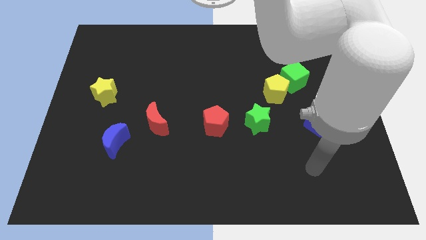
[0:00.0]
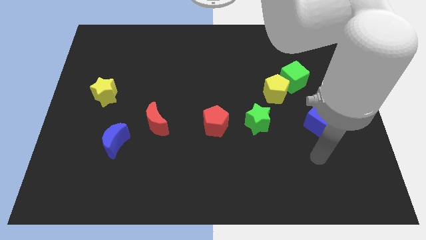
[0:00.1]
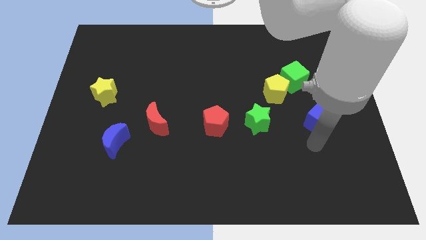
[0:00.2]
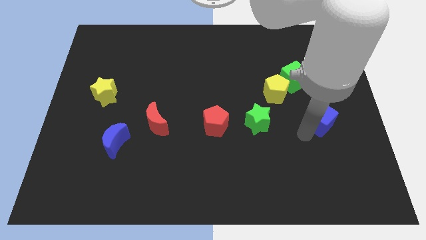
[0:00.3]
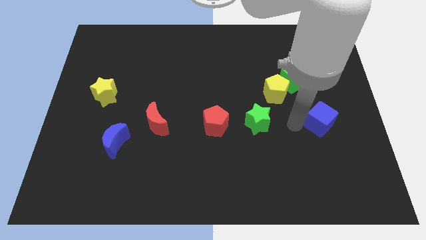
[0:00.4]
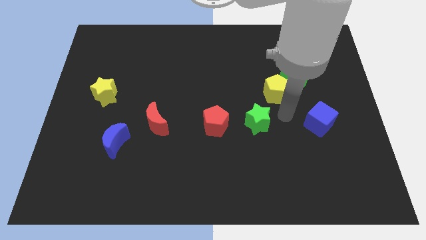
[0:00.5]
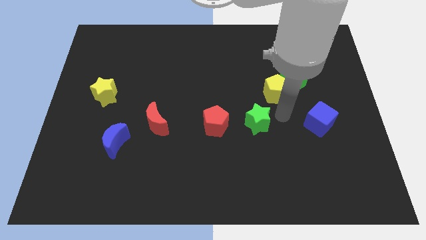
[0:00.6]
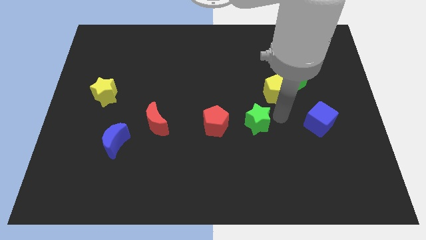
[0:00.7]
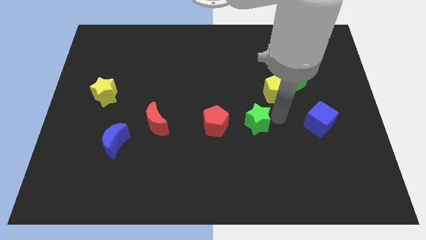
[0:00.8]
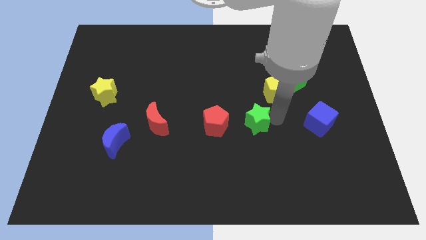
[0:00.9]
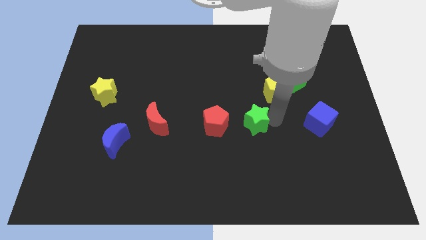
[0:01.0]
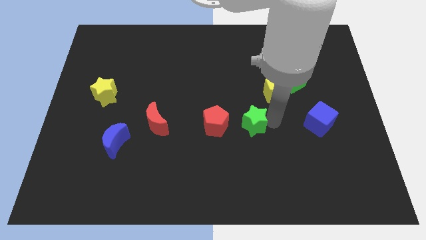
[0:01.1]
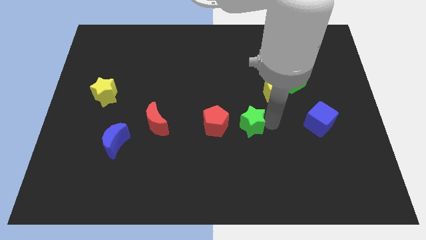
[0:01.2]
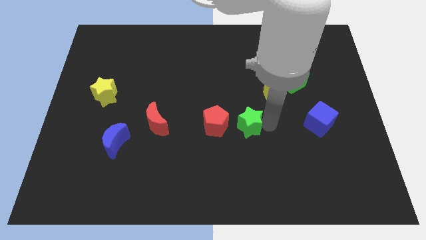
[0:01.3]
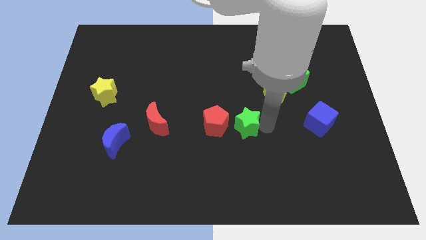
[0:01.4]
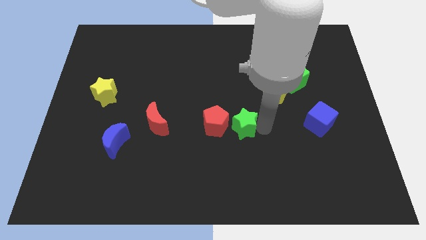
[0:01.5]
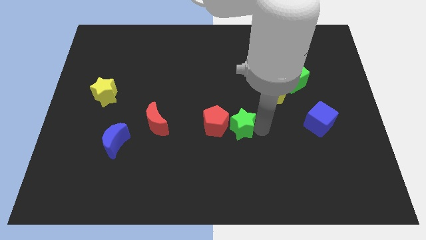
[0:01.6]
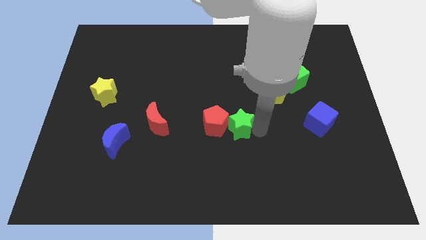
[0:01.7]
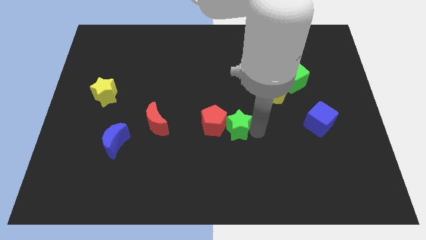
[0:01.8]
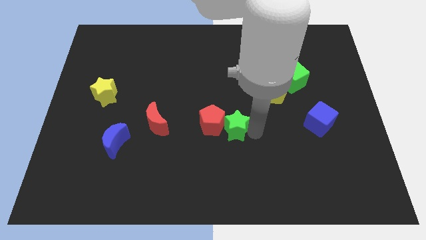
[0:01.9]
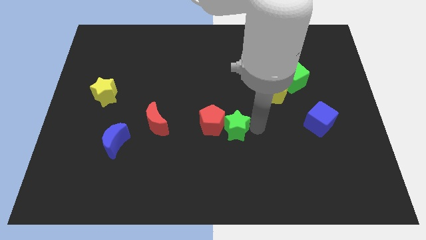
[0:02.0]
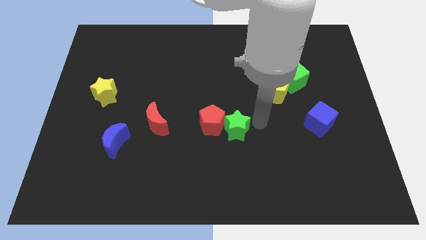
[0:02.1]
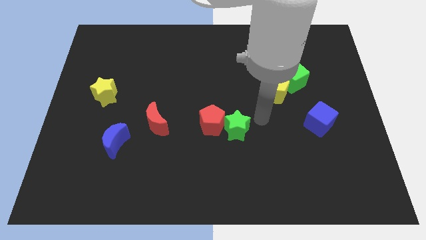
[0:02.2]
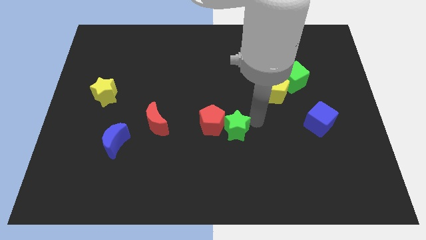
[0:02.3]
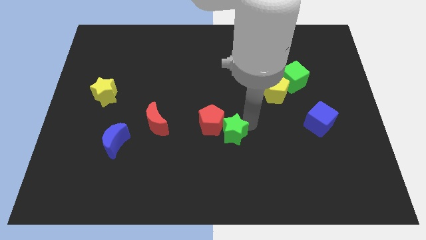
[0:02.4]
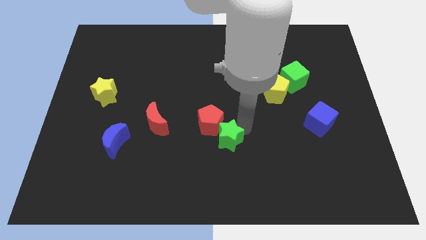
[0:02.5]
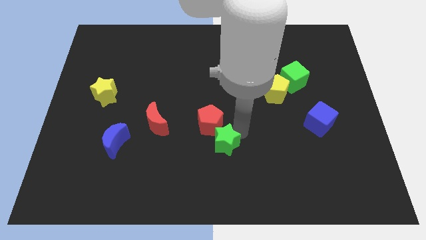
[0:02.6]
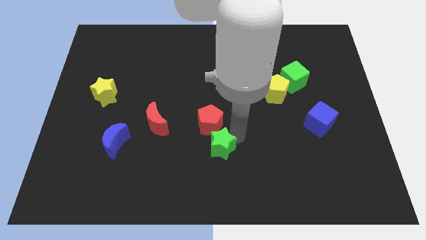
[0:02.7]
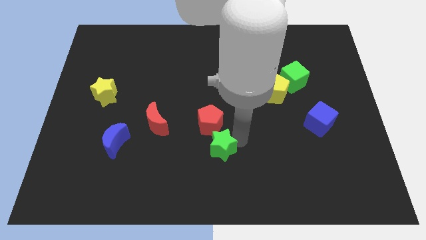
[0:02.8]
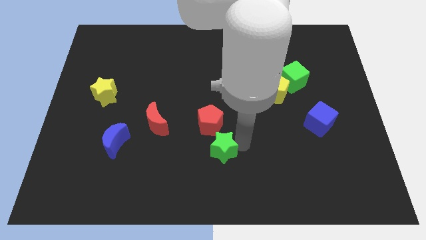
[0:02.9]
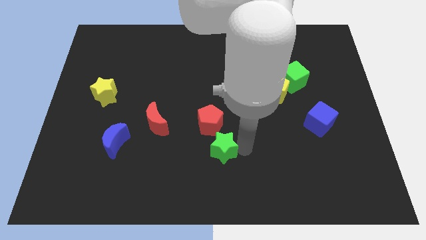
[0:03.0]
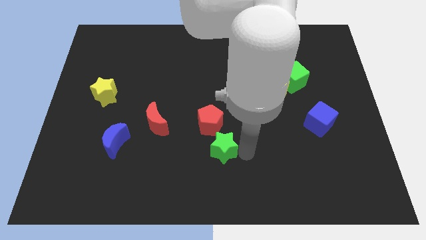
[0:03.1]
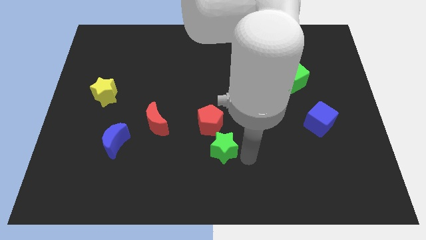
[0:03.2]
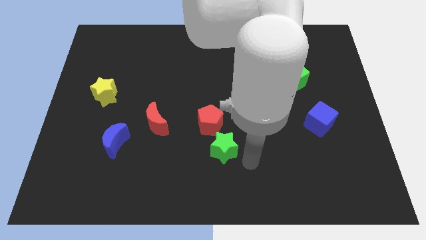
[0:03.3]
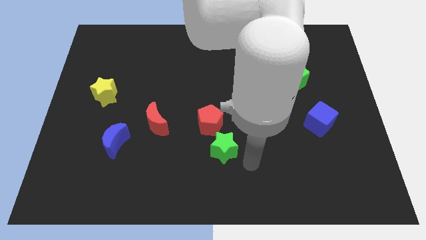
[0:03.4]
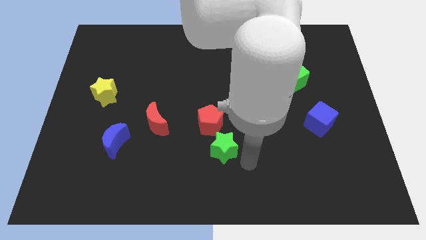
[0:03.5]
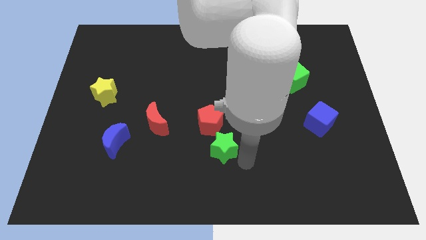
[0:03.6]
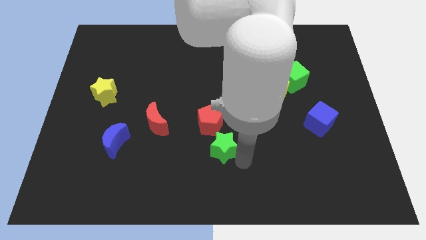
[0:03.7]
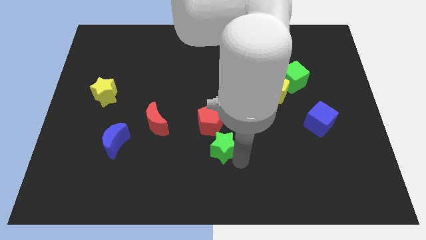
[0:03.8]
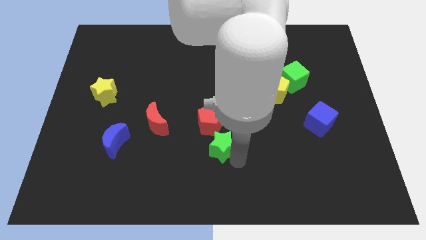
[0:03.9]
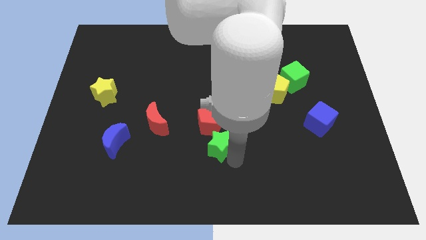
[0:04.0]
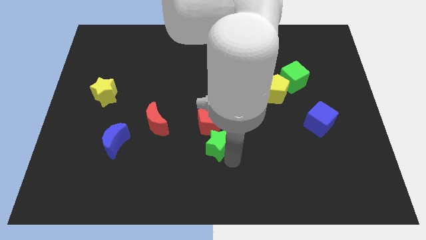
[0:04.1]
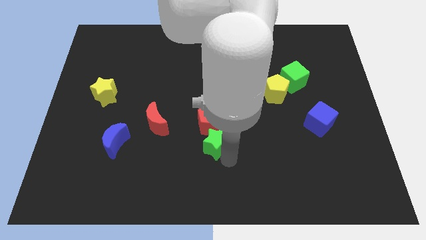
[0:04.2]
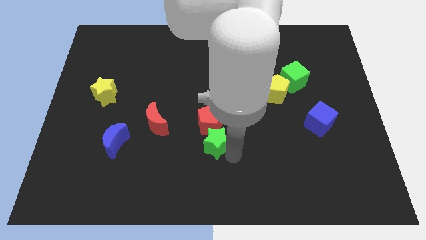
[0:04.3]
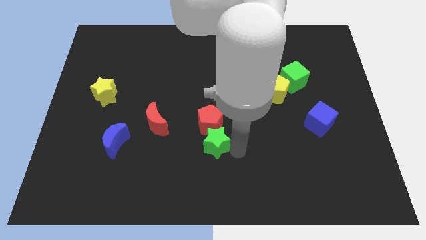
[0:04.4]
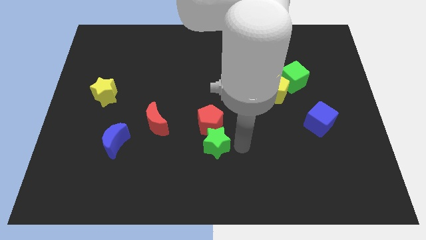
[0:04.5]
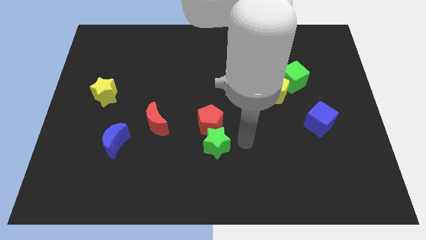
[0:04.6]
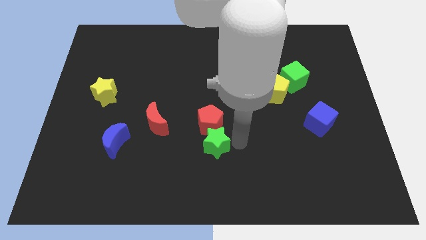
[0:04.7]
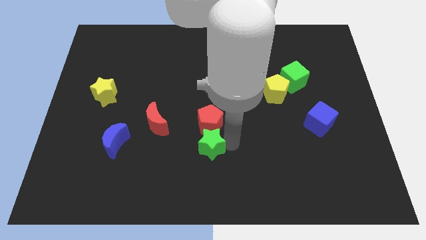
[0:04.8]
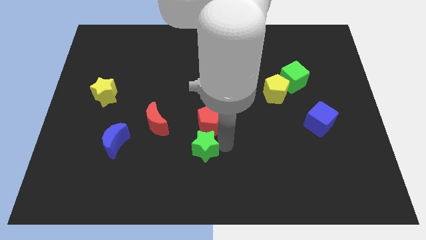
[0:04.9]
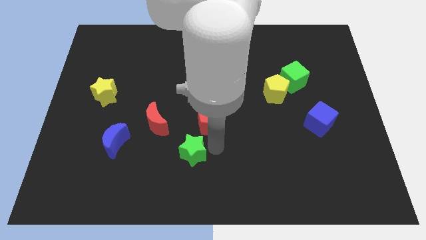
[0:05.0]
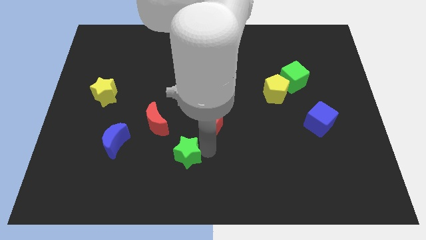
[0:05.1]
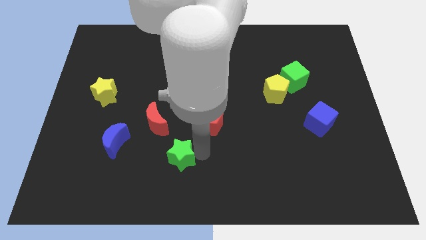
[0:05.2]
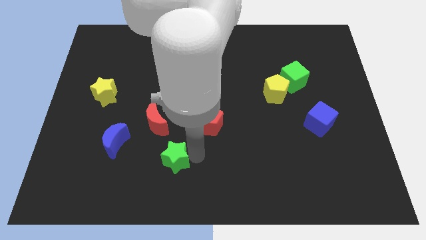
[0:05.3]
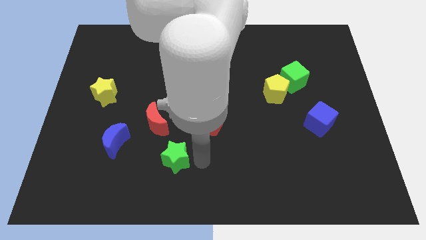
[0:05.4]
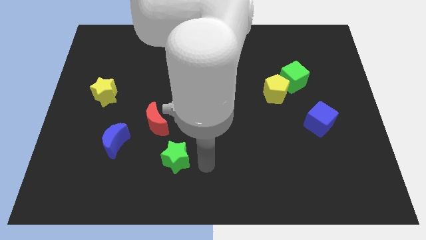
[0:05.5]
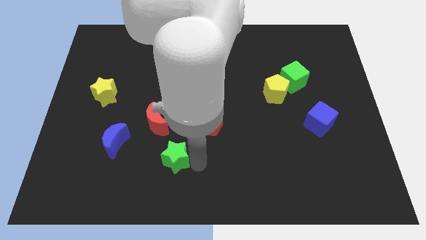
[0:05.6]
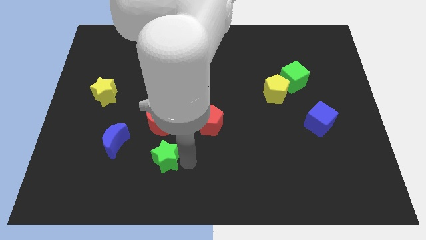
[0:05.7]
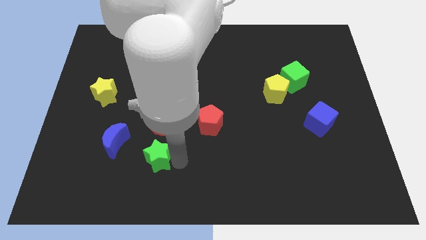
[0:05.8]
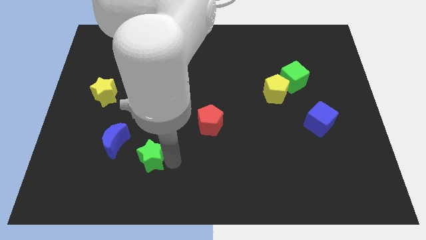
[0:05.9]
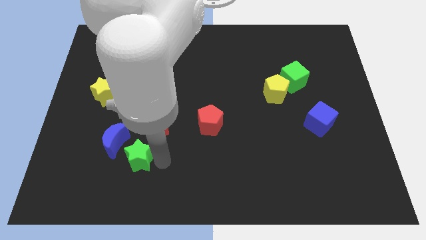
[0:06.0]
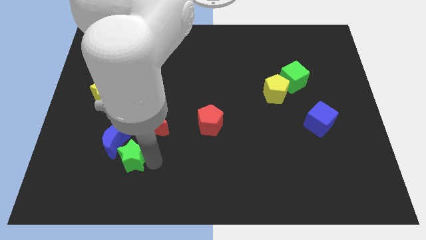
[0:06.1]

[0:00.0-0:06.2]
put the green star towards the blue moon

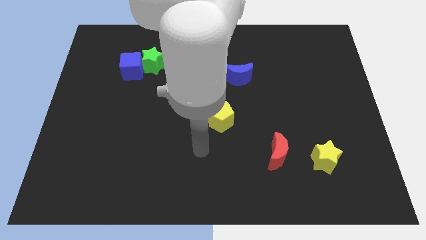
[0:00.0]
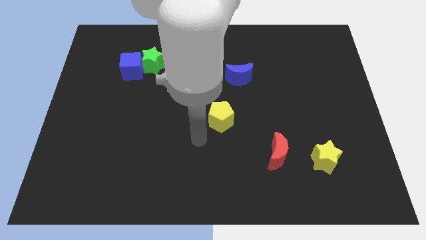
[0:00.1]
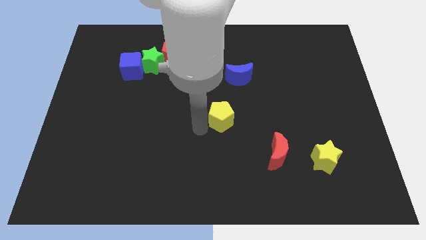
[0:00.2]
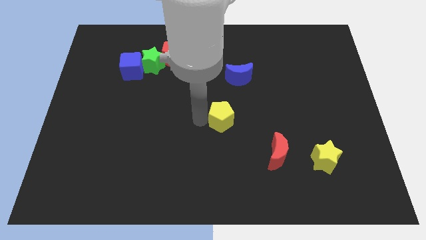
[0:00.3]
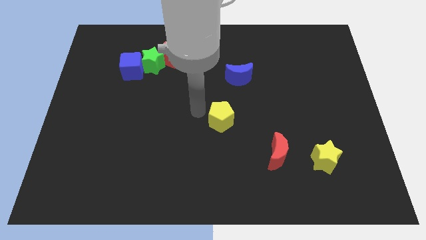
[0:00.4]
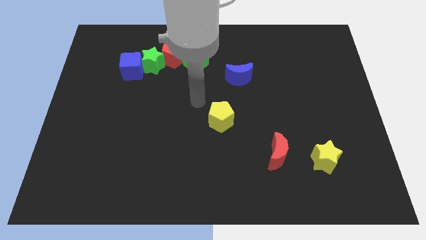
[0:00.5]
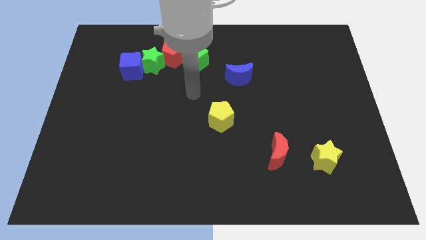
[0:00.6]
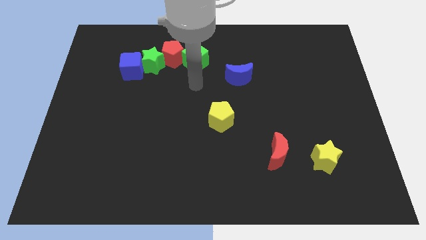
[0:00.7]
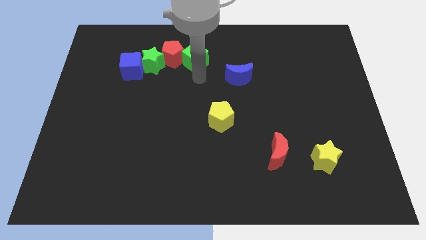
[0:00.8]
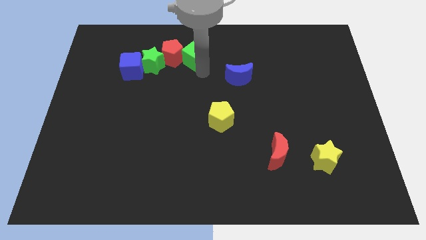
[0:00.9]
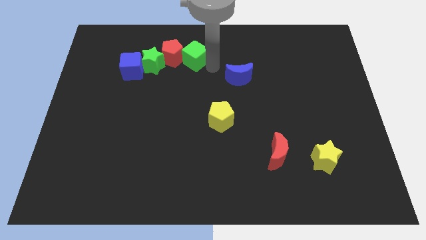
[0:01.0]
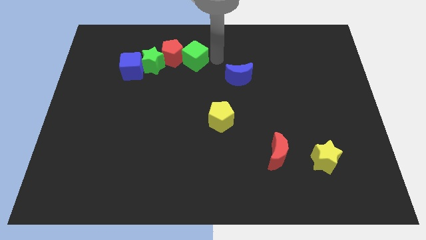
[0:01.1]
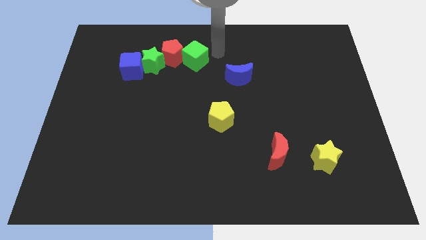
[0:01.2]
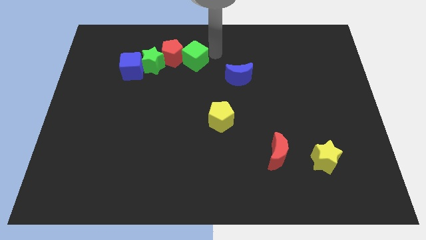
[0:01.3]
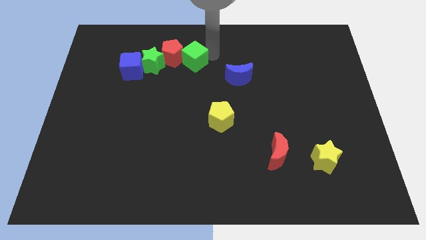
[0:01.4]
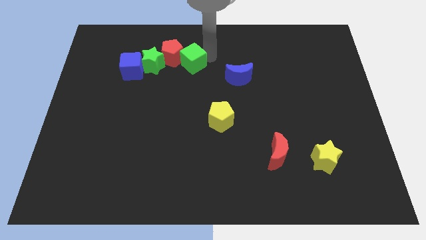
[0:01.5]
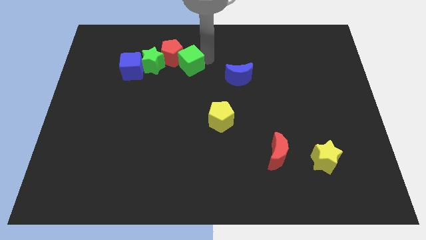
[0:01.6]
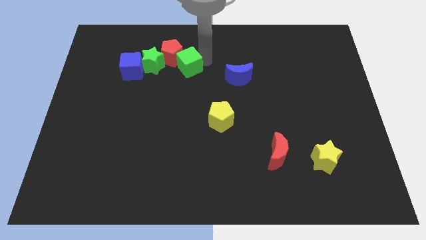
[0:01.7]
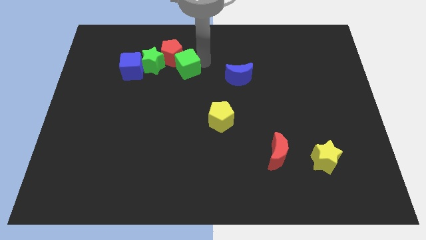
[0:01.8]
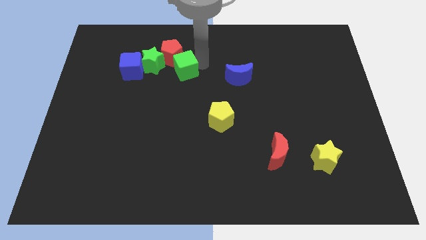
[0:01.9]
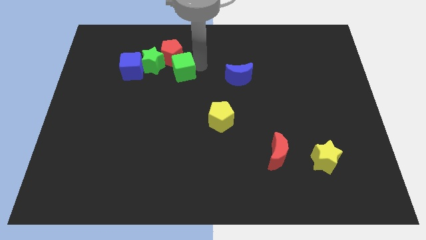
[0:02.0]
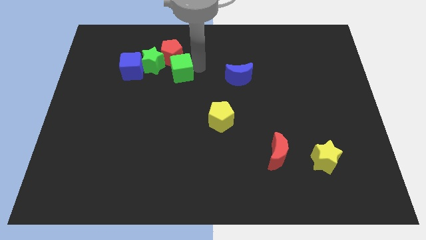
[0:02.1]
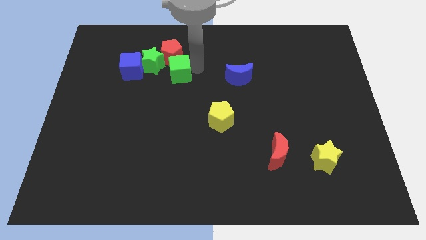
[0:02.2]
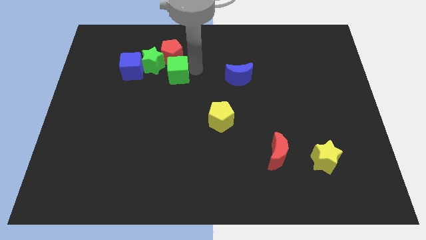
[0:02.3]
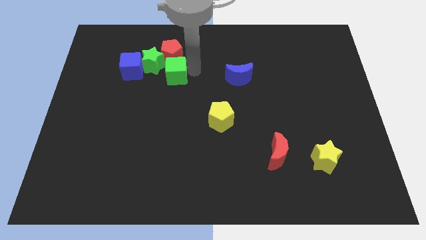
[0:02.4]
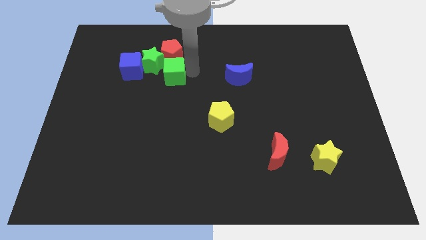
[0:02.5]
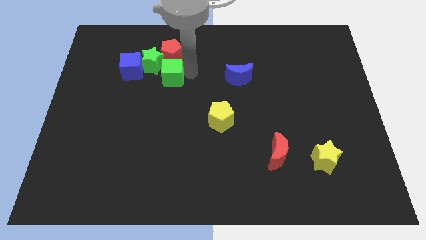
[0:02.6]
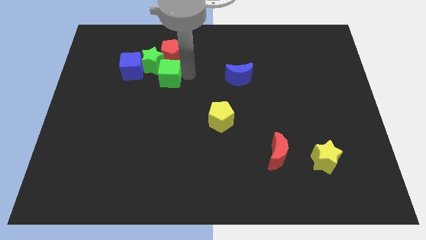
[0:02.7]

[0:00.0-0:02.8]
slide the green cube to the green star
